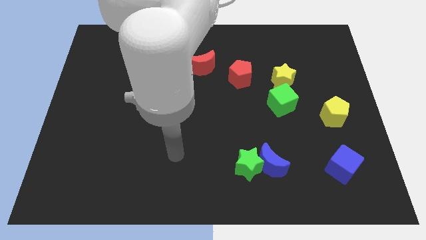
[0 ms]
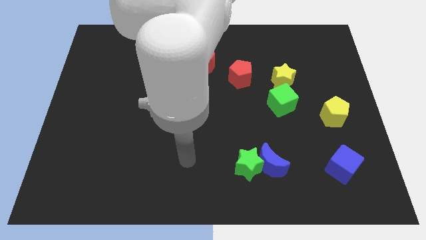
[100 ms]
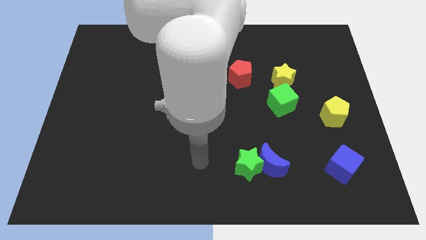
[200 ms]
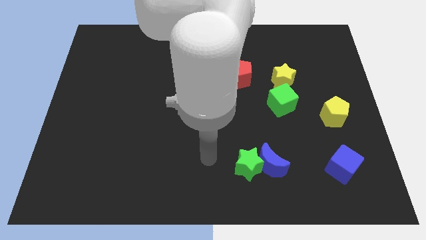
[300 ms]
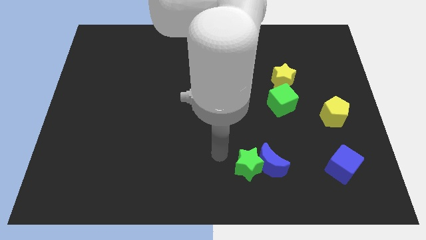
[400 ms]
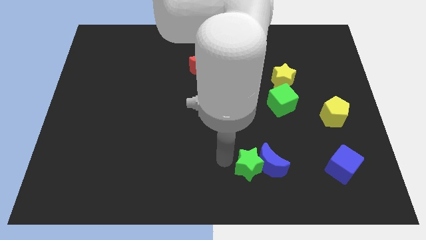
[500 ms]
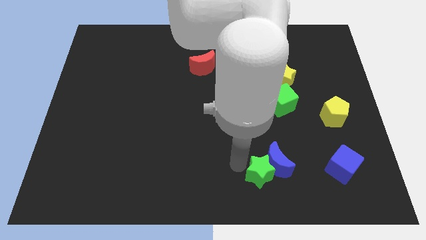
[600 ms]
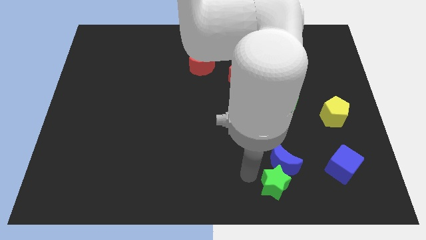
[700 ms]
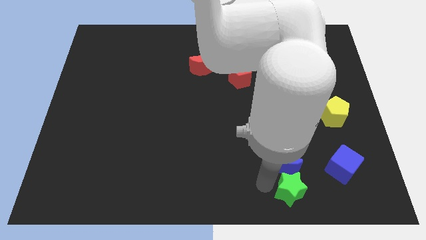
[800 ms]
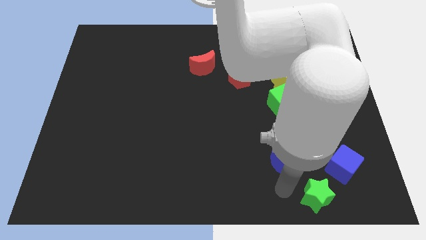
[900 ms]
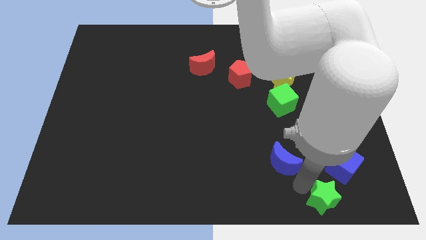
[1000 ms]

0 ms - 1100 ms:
move the blue moon away from the green star

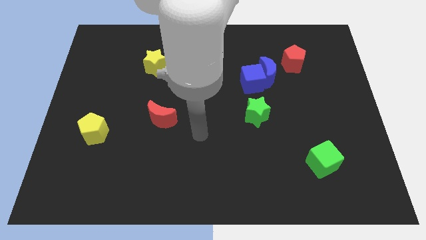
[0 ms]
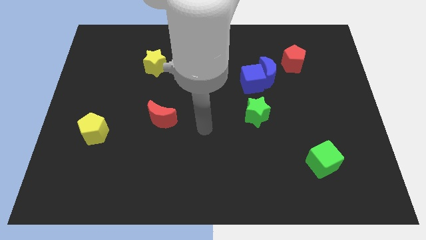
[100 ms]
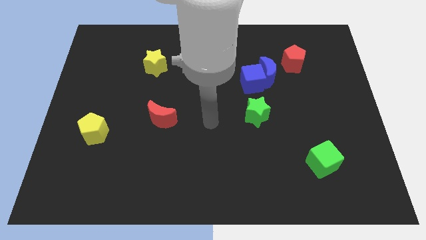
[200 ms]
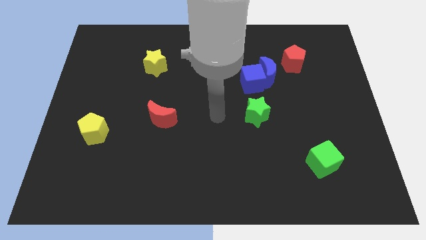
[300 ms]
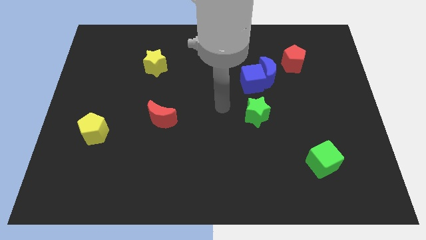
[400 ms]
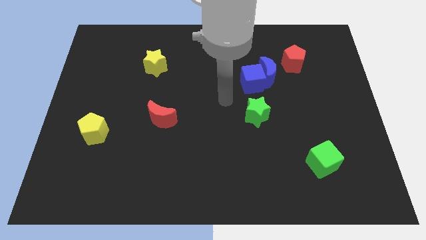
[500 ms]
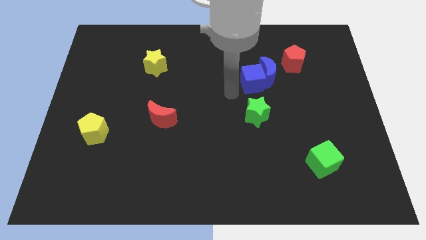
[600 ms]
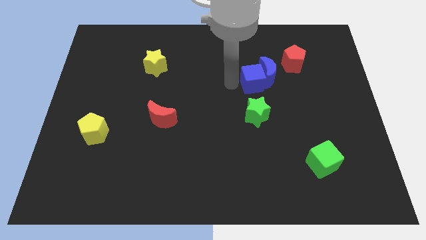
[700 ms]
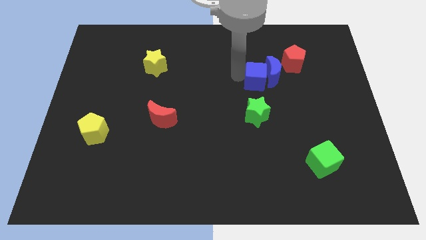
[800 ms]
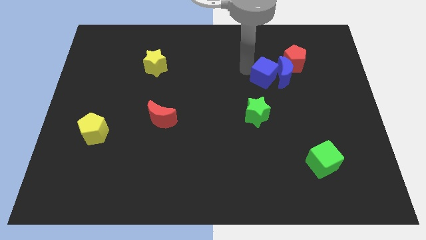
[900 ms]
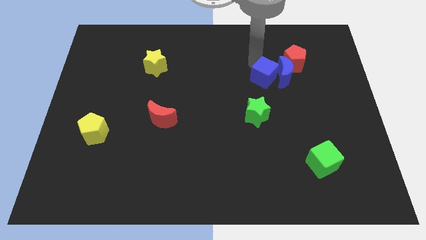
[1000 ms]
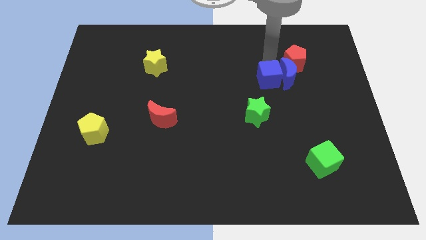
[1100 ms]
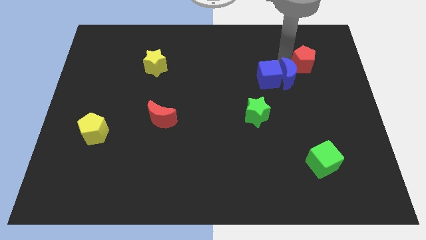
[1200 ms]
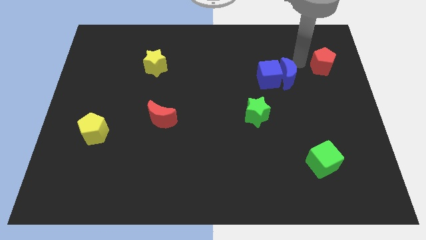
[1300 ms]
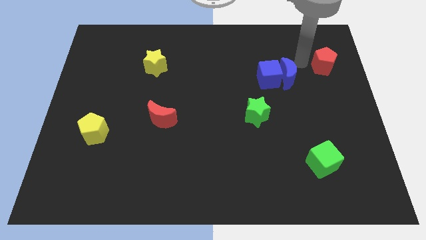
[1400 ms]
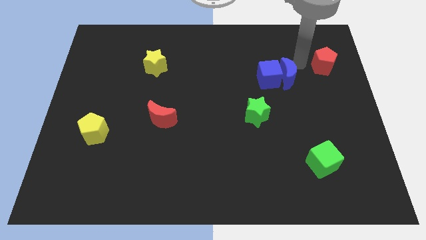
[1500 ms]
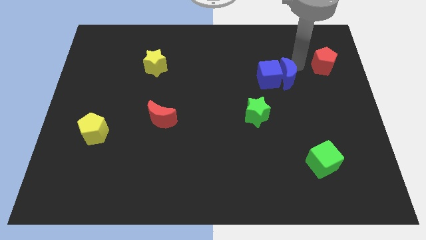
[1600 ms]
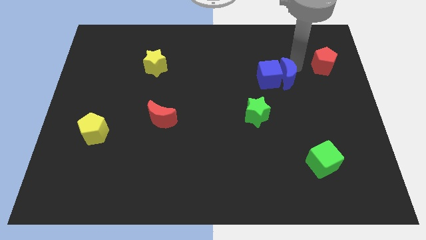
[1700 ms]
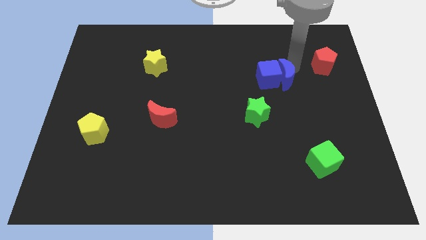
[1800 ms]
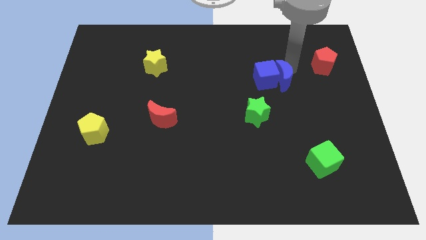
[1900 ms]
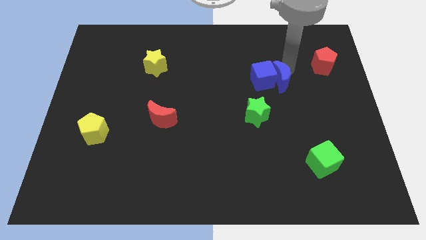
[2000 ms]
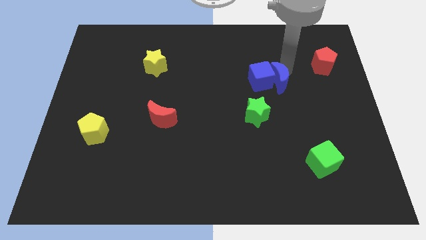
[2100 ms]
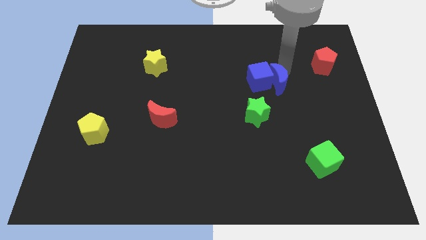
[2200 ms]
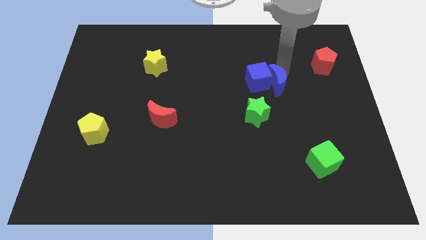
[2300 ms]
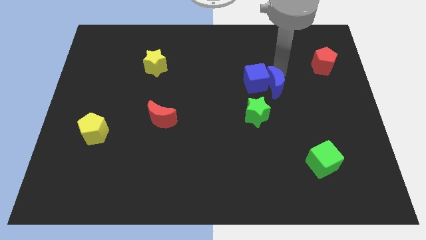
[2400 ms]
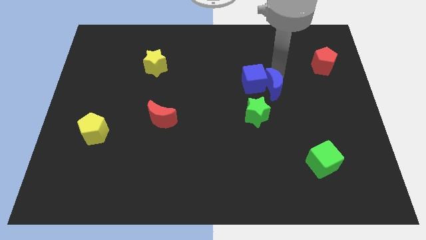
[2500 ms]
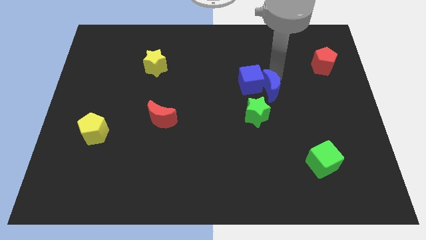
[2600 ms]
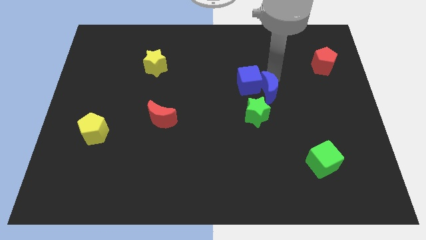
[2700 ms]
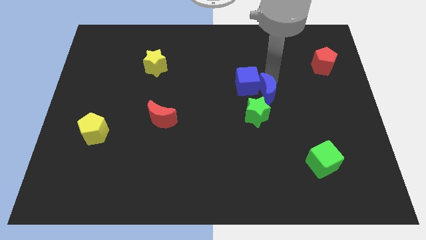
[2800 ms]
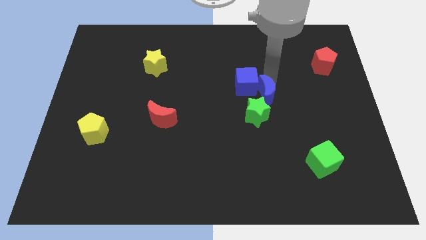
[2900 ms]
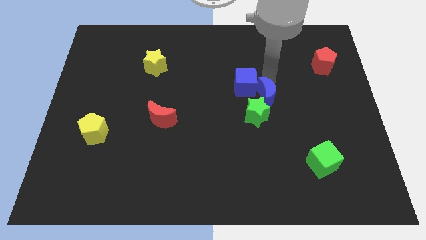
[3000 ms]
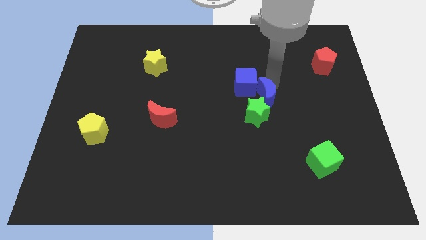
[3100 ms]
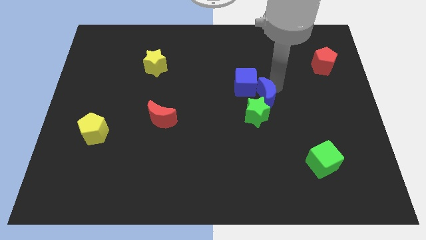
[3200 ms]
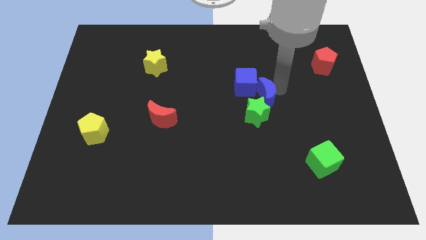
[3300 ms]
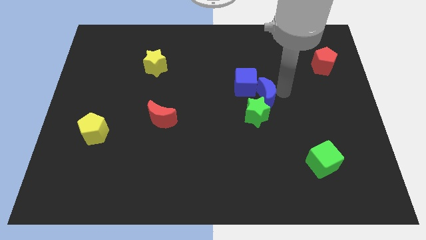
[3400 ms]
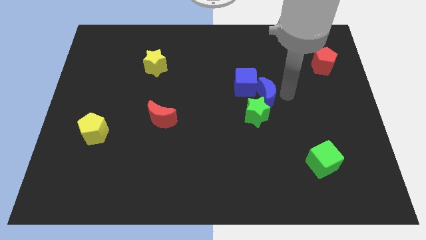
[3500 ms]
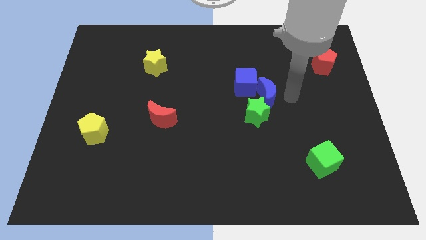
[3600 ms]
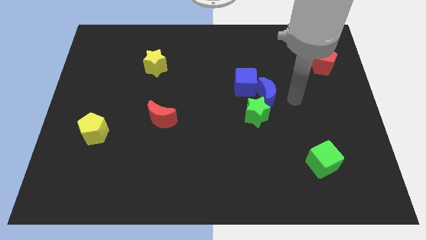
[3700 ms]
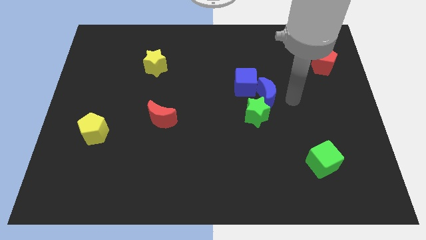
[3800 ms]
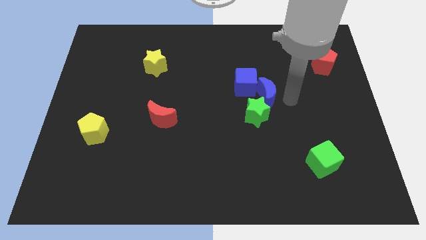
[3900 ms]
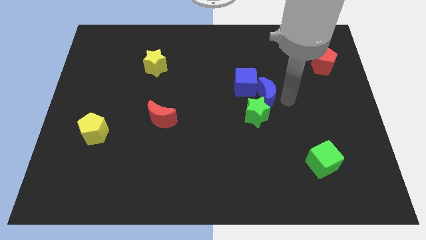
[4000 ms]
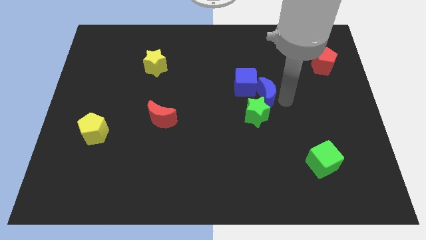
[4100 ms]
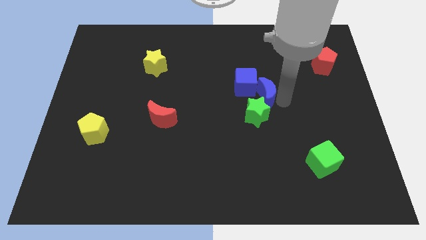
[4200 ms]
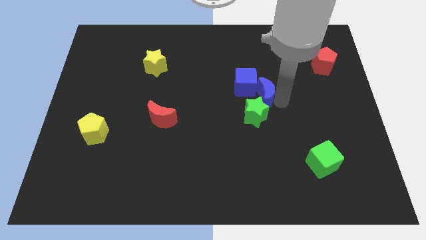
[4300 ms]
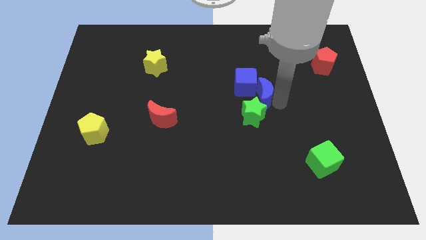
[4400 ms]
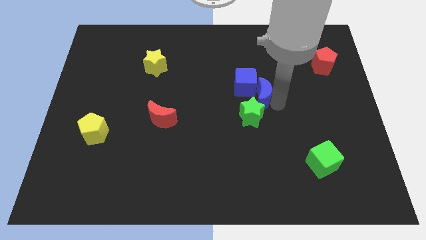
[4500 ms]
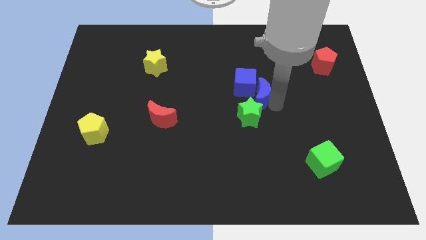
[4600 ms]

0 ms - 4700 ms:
pull the blue moon apart from the blue cube and red pentagon

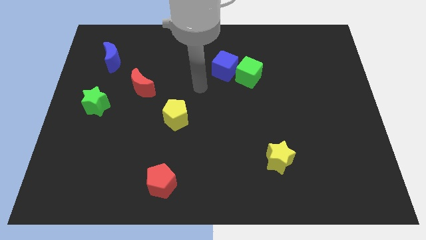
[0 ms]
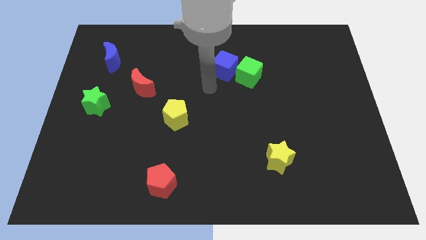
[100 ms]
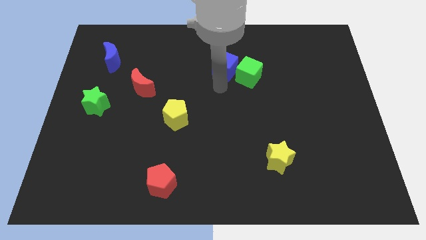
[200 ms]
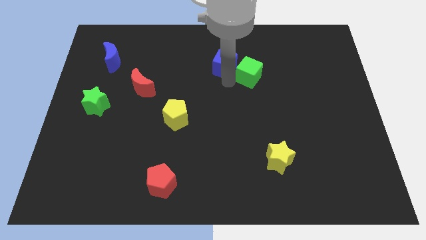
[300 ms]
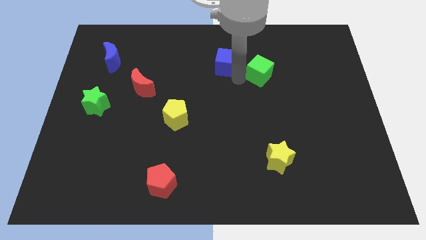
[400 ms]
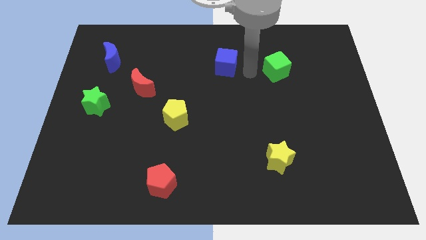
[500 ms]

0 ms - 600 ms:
move the blue cube away from the green cube

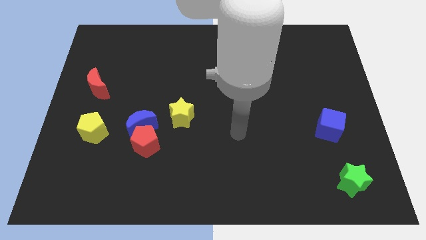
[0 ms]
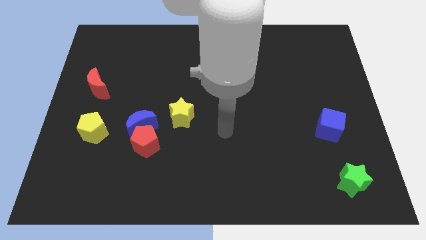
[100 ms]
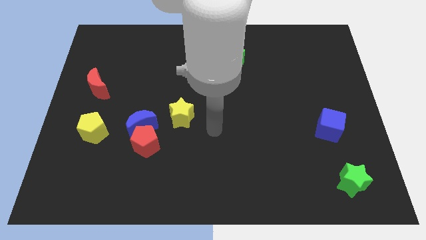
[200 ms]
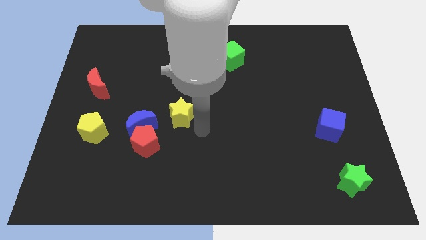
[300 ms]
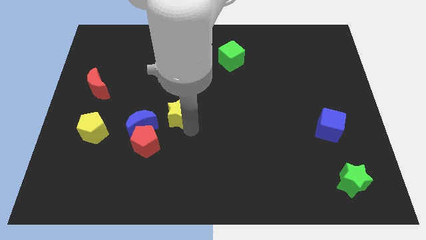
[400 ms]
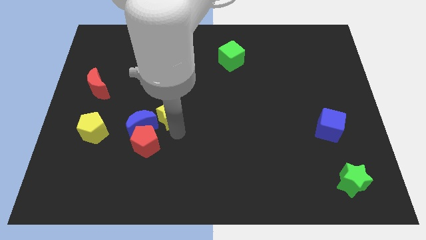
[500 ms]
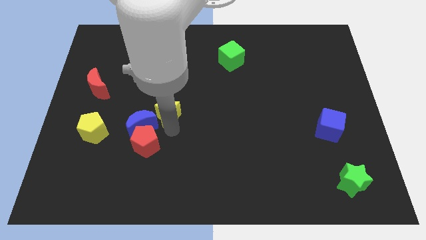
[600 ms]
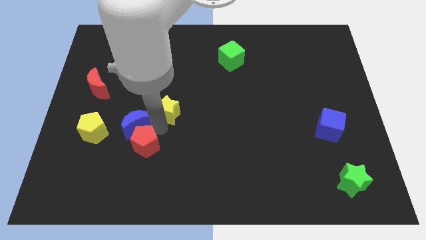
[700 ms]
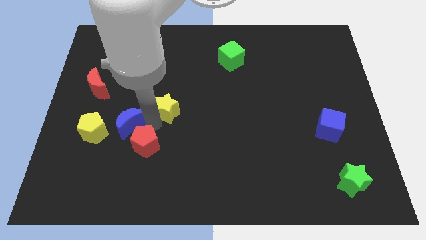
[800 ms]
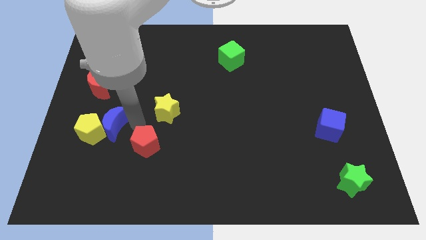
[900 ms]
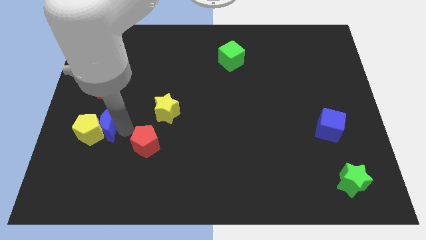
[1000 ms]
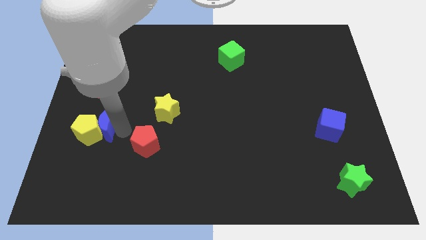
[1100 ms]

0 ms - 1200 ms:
move the red pentagon away from the blue moon

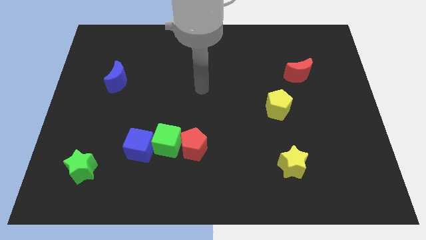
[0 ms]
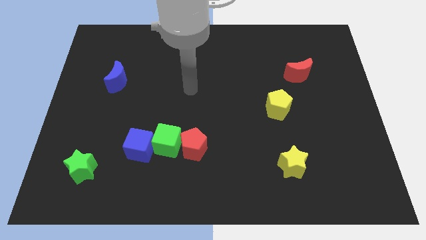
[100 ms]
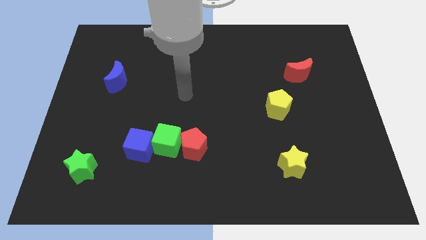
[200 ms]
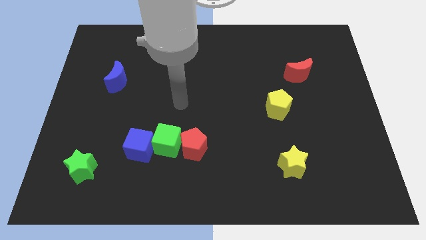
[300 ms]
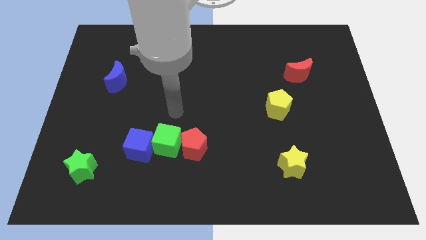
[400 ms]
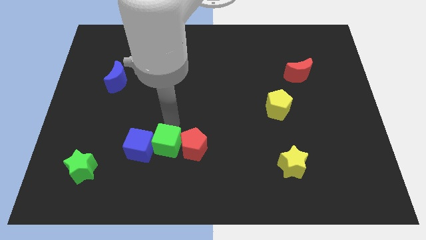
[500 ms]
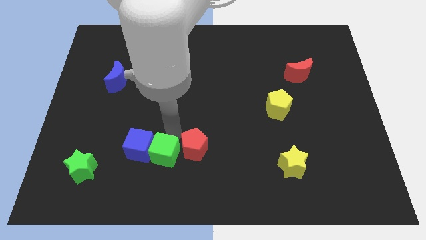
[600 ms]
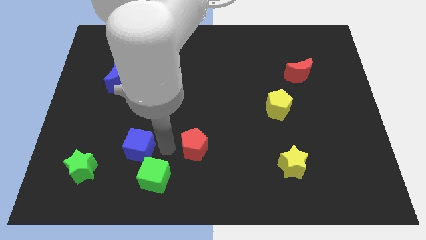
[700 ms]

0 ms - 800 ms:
separate the red pentagon from the green cube

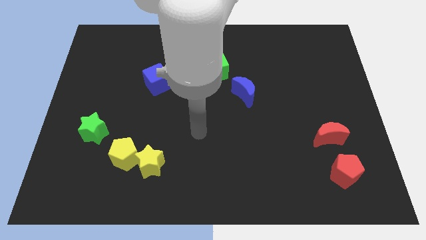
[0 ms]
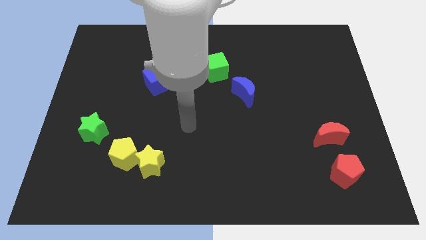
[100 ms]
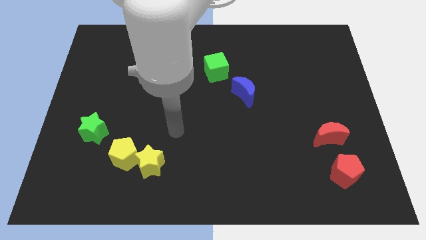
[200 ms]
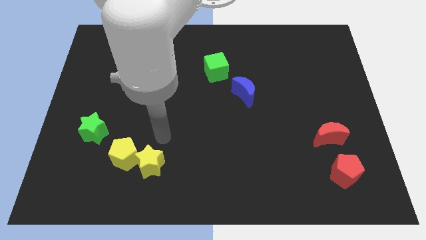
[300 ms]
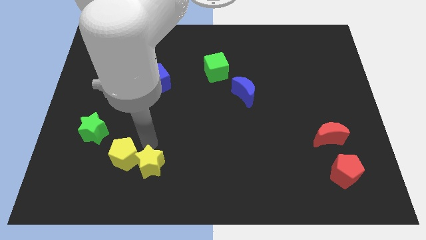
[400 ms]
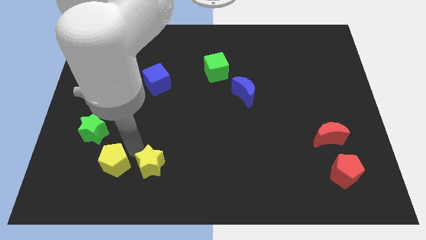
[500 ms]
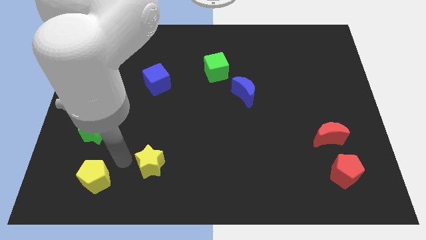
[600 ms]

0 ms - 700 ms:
move the yellow star away from the yellow pentagon

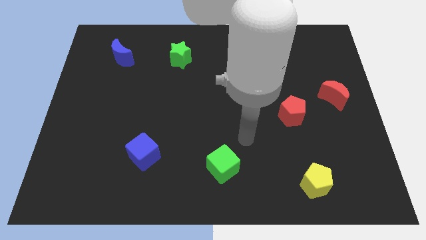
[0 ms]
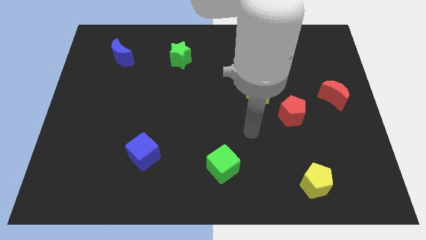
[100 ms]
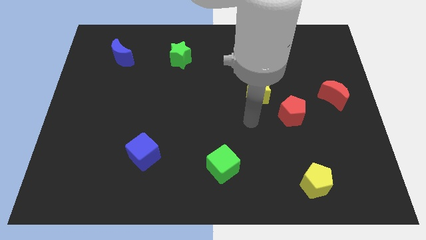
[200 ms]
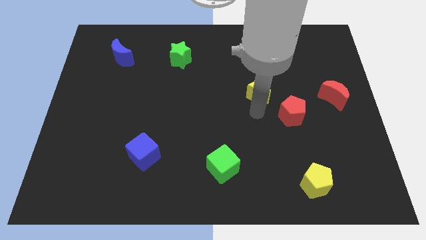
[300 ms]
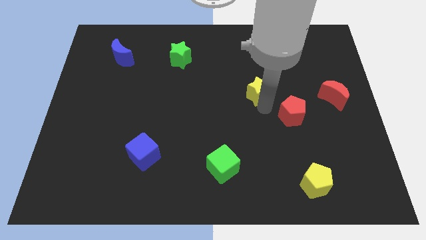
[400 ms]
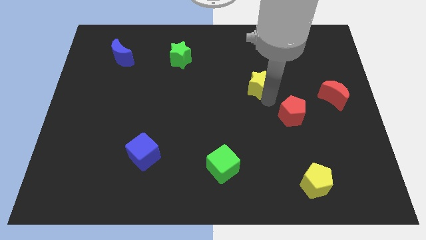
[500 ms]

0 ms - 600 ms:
move the red pentagon away from the yellow star
